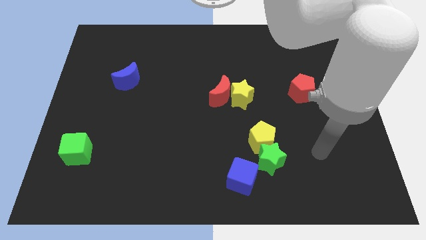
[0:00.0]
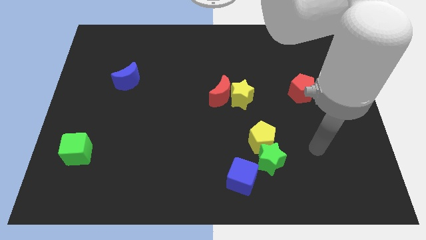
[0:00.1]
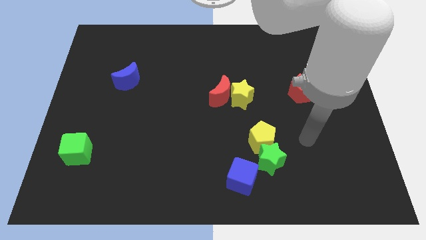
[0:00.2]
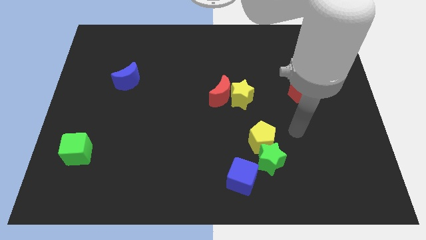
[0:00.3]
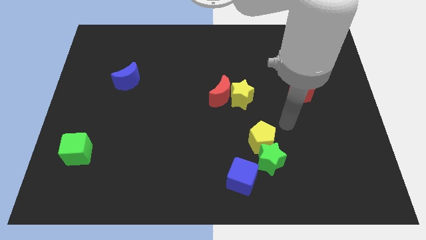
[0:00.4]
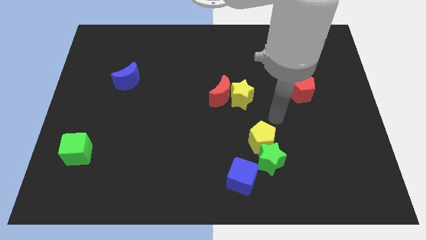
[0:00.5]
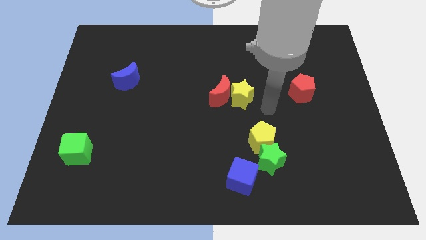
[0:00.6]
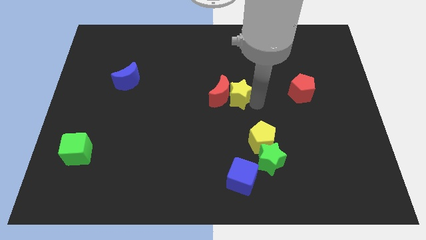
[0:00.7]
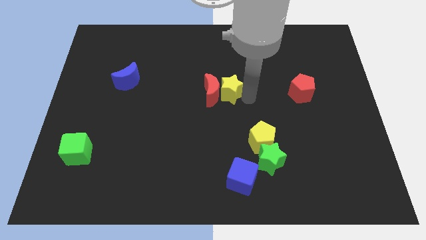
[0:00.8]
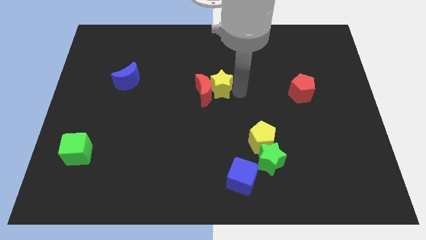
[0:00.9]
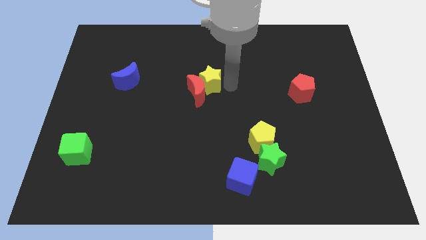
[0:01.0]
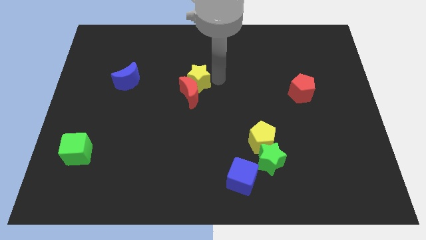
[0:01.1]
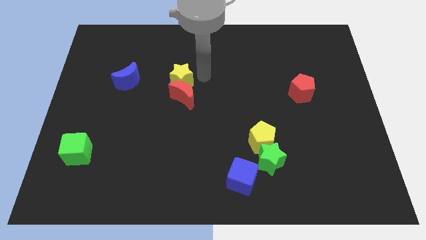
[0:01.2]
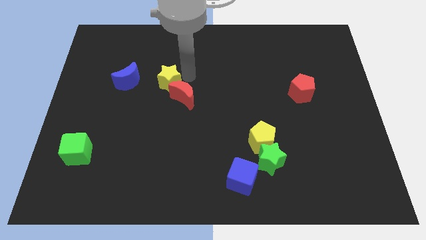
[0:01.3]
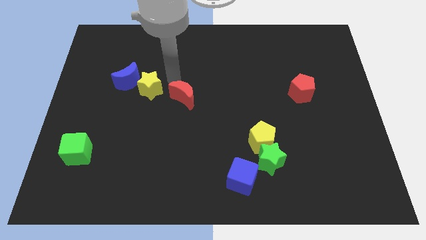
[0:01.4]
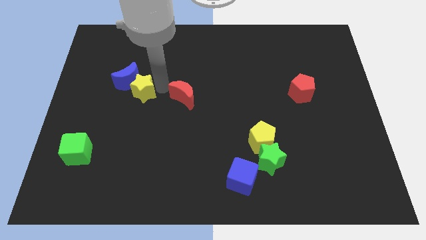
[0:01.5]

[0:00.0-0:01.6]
move the red moon away from the yellow star

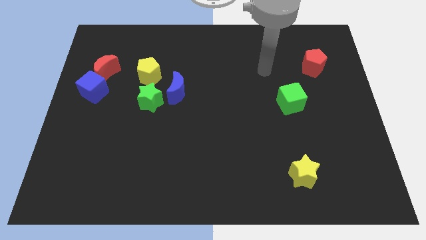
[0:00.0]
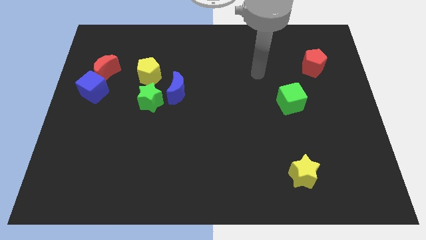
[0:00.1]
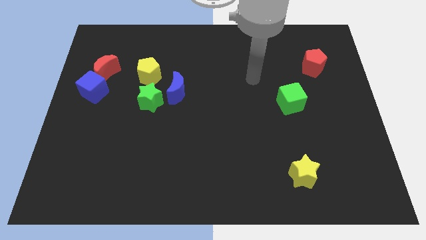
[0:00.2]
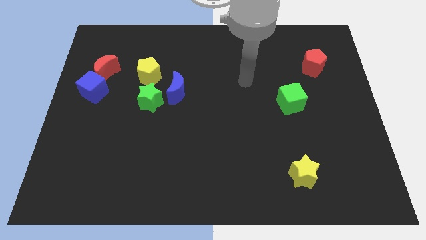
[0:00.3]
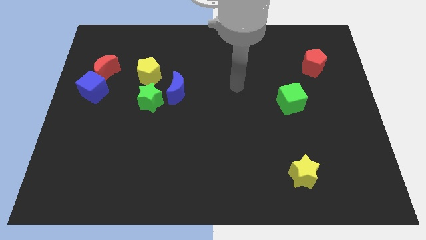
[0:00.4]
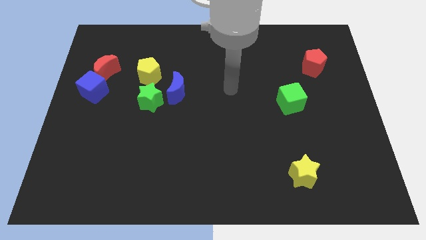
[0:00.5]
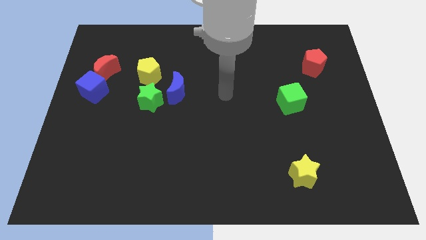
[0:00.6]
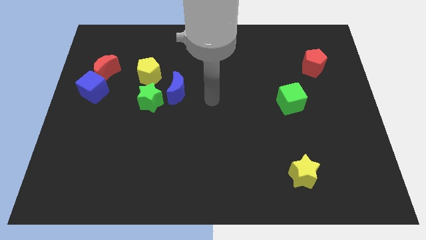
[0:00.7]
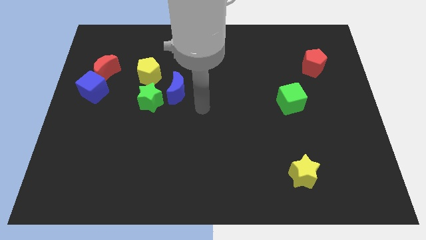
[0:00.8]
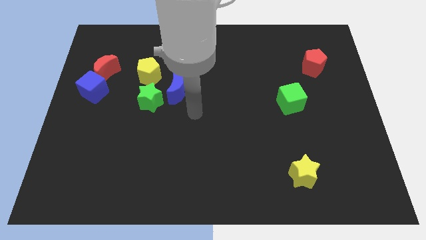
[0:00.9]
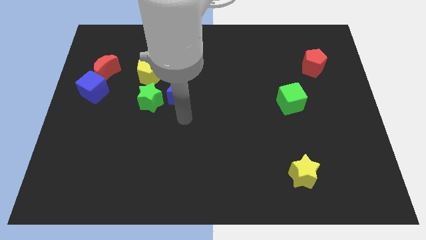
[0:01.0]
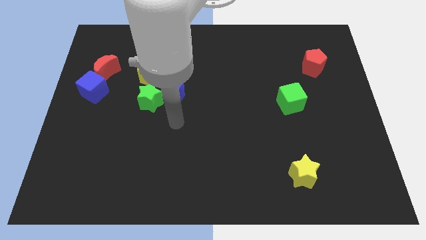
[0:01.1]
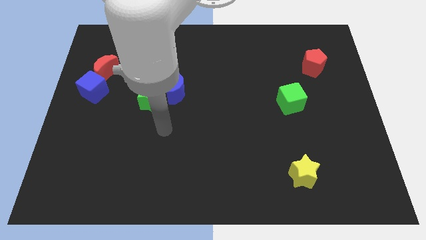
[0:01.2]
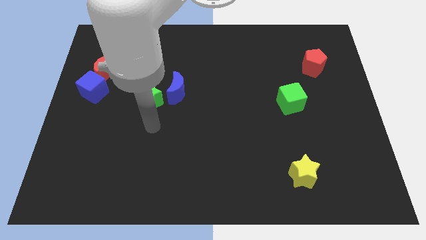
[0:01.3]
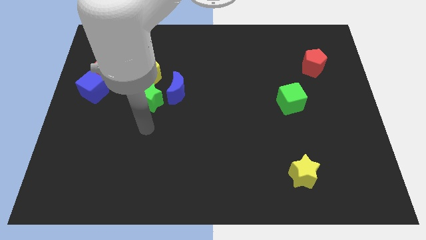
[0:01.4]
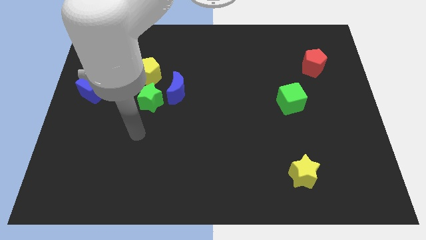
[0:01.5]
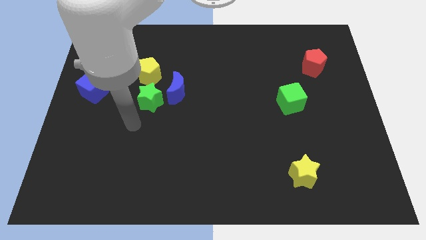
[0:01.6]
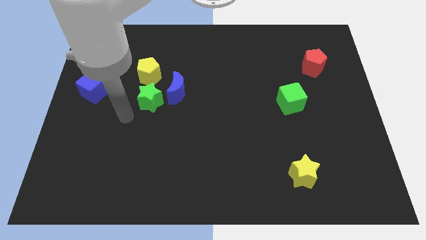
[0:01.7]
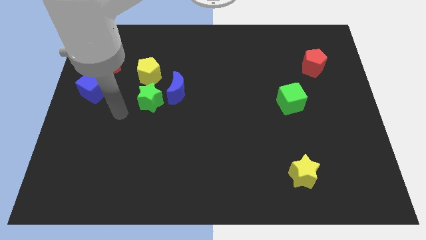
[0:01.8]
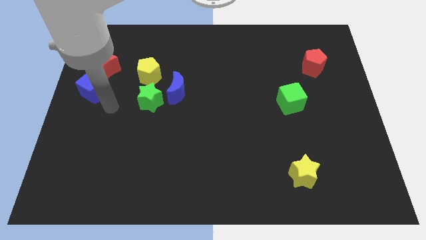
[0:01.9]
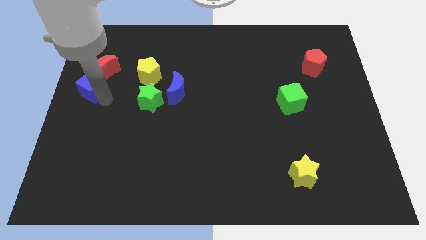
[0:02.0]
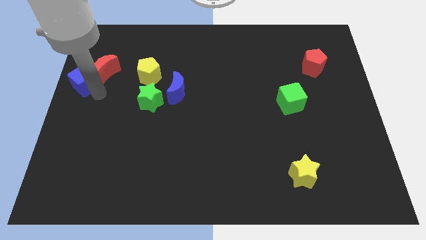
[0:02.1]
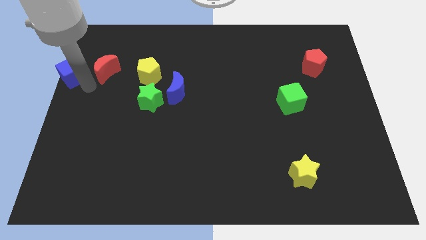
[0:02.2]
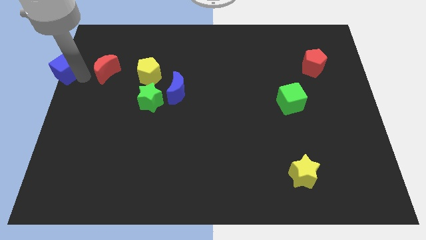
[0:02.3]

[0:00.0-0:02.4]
move the red moon away from the blue cube

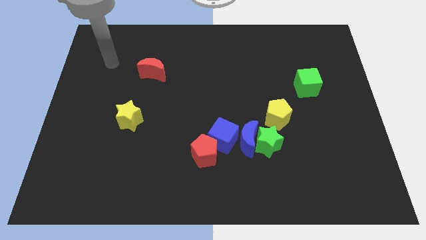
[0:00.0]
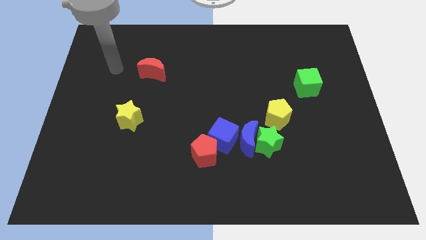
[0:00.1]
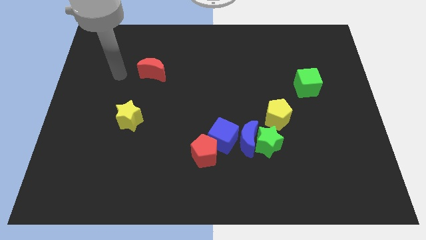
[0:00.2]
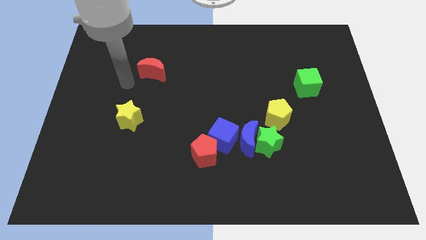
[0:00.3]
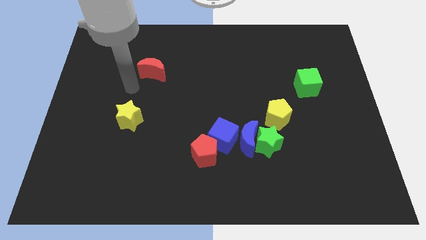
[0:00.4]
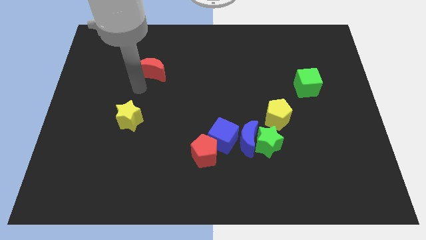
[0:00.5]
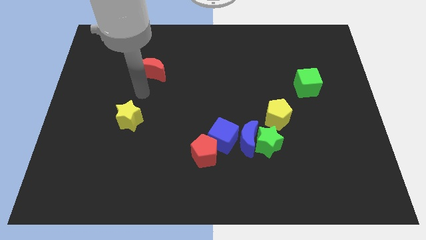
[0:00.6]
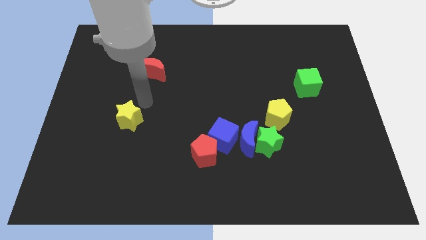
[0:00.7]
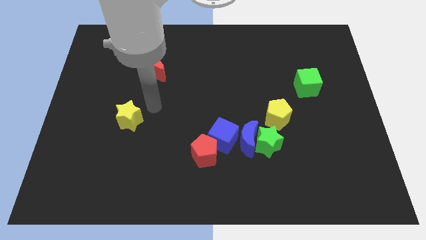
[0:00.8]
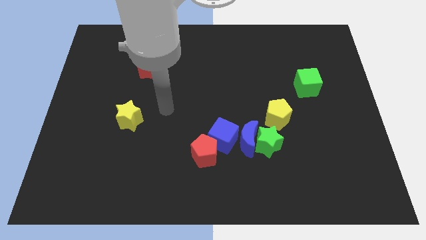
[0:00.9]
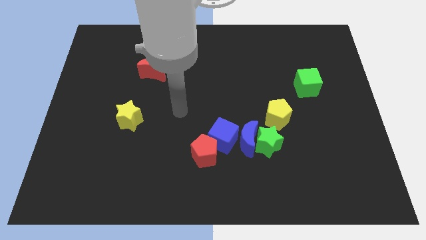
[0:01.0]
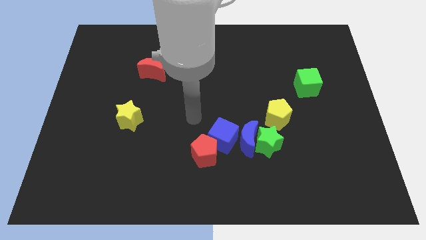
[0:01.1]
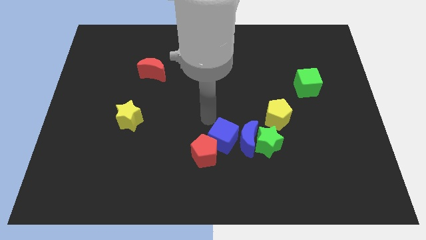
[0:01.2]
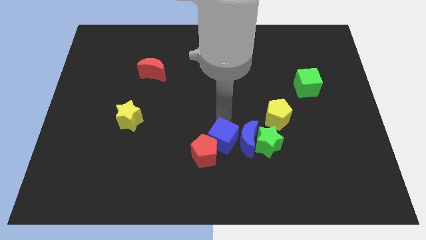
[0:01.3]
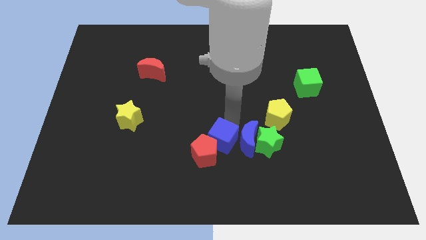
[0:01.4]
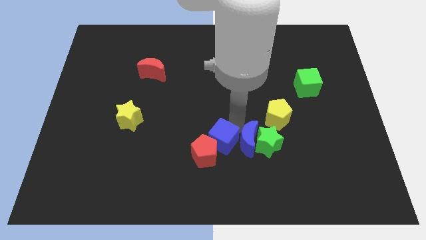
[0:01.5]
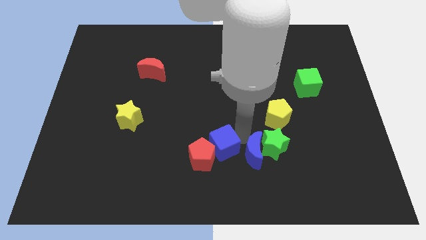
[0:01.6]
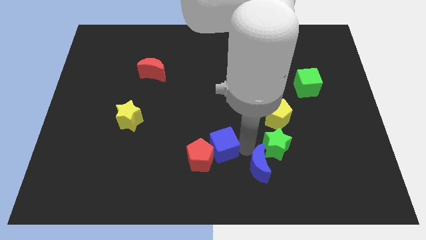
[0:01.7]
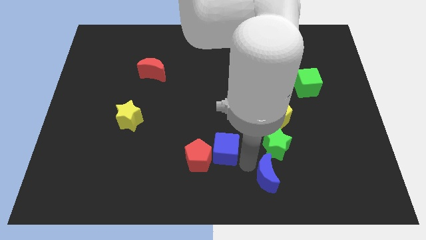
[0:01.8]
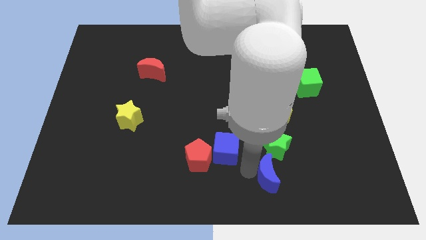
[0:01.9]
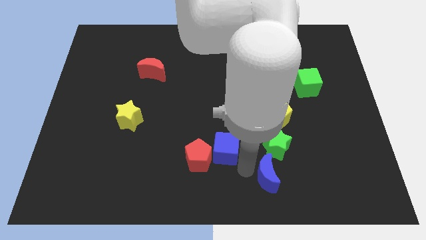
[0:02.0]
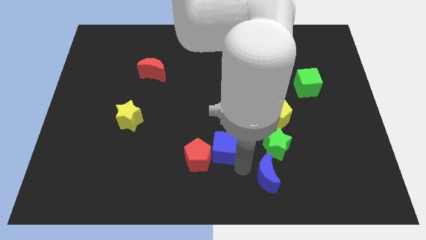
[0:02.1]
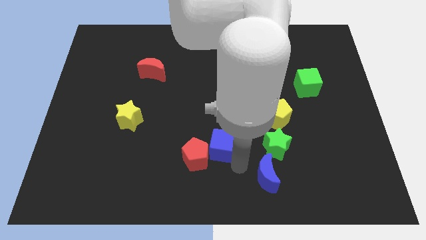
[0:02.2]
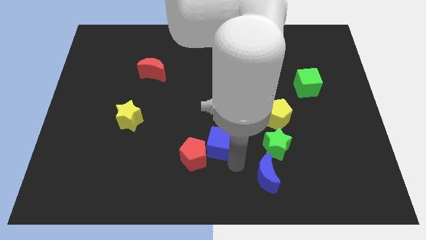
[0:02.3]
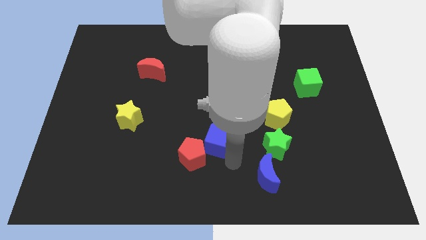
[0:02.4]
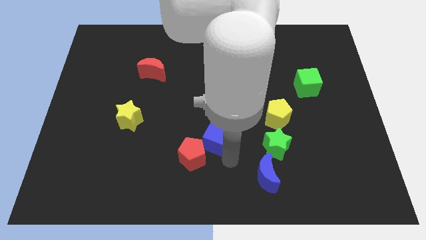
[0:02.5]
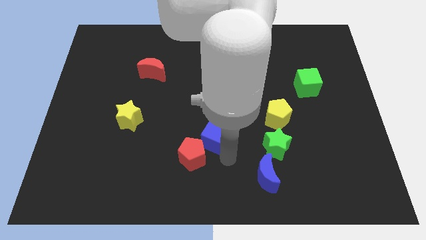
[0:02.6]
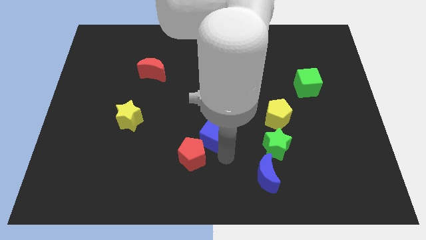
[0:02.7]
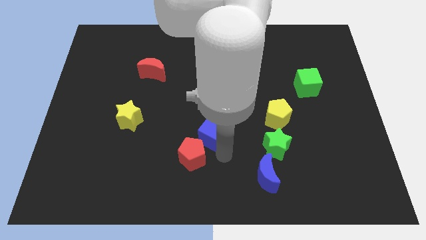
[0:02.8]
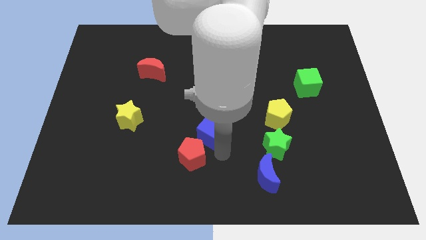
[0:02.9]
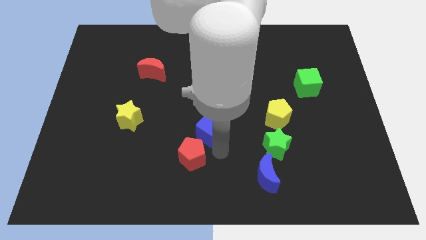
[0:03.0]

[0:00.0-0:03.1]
separate the blue cube from the blue moon, red pentagon, and green star

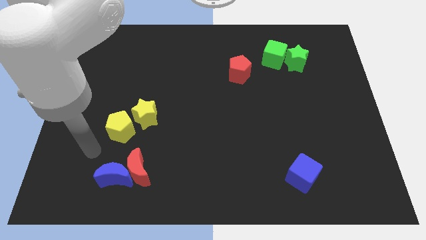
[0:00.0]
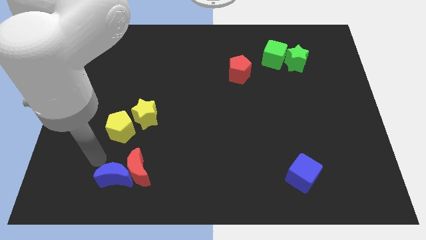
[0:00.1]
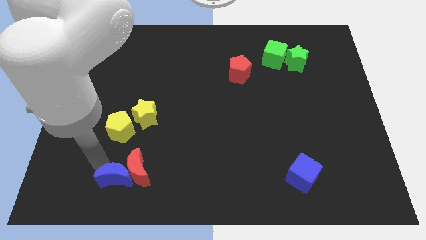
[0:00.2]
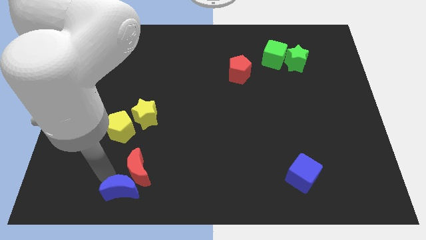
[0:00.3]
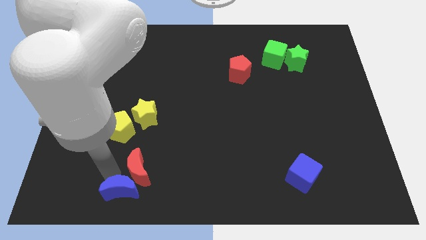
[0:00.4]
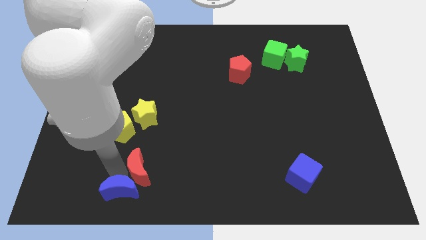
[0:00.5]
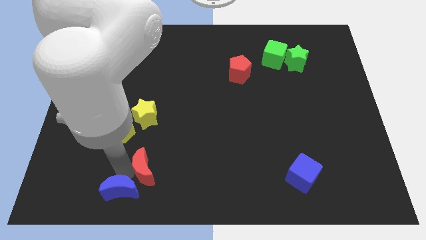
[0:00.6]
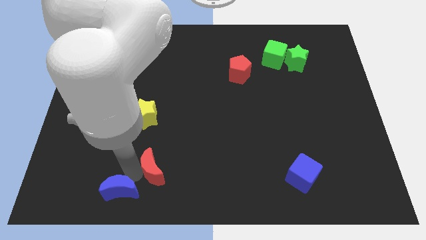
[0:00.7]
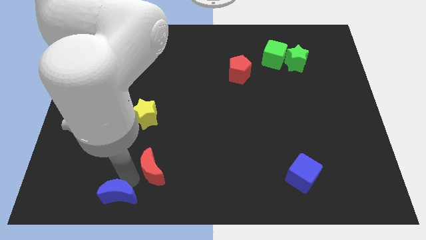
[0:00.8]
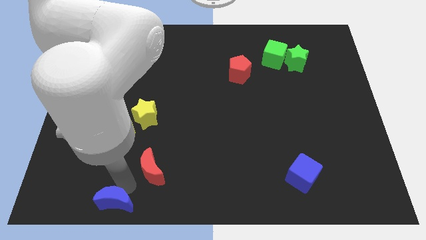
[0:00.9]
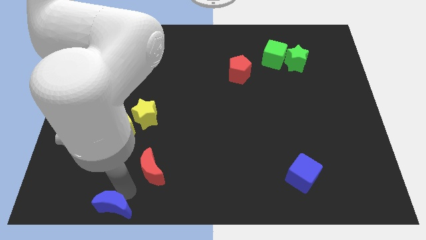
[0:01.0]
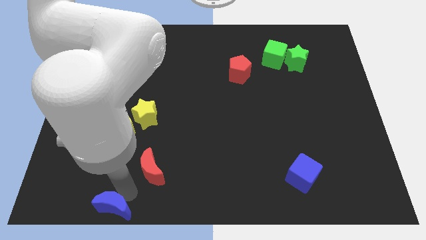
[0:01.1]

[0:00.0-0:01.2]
pull the red moon apart from the blue moon

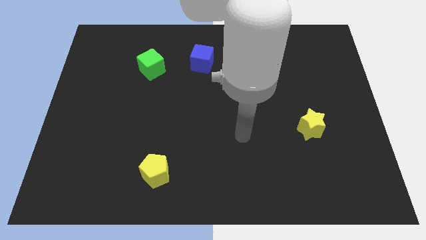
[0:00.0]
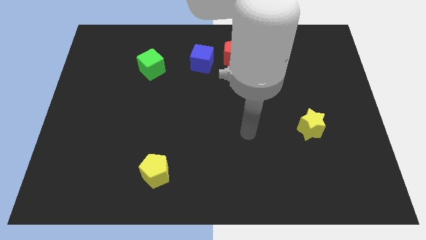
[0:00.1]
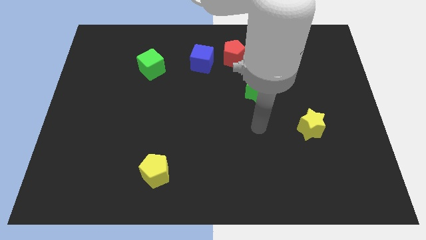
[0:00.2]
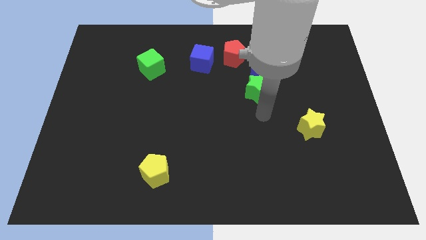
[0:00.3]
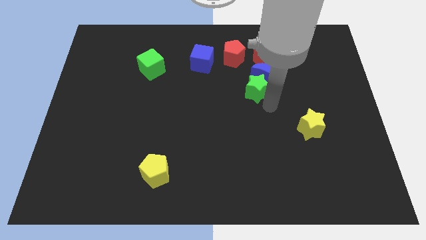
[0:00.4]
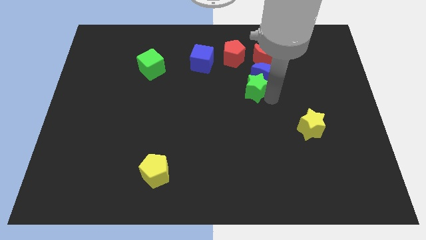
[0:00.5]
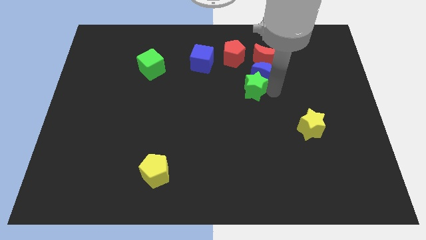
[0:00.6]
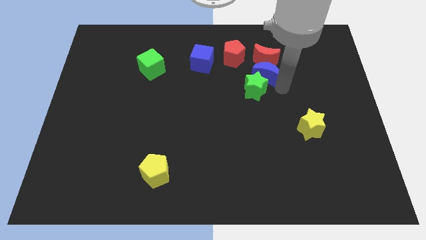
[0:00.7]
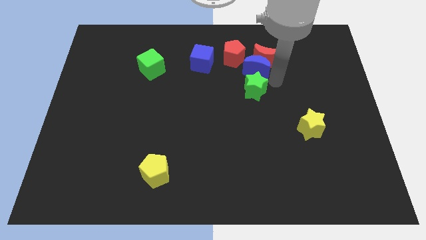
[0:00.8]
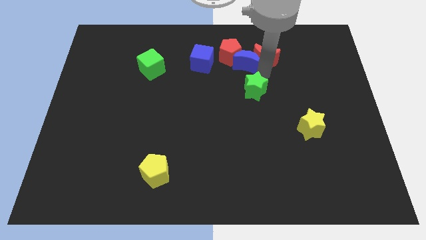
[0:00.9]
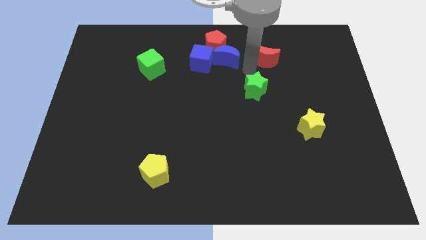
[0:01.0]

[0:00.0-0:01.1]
separate the green star from the blue moon
